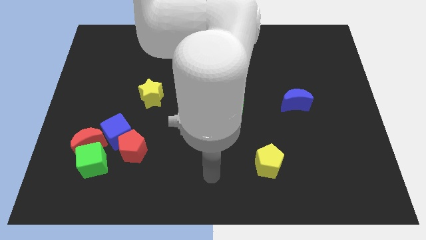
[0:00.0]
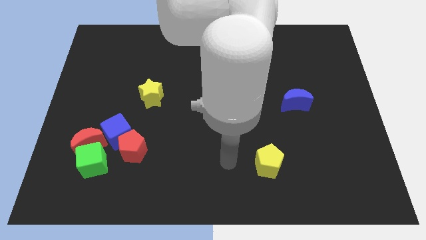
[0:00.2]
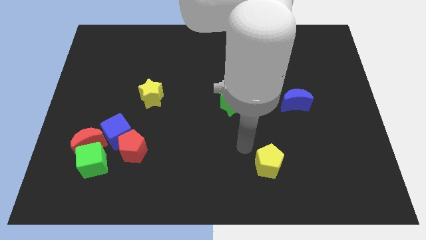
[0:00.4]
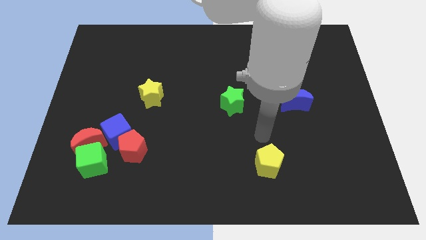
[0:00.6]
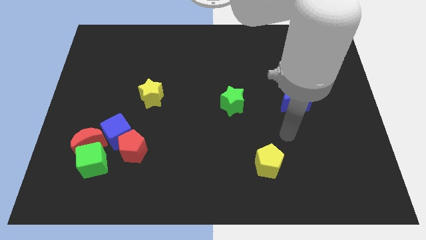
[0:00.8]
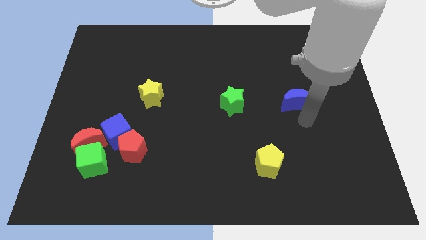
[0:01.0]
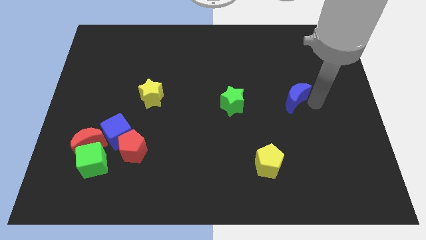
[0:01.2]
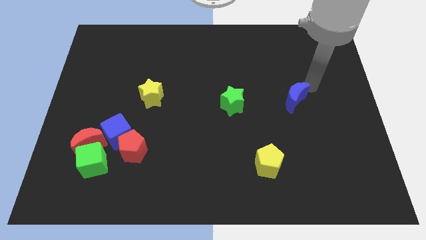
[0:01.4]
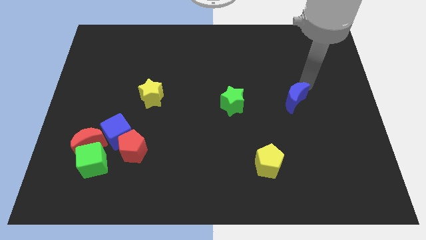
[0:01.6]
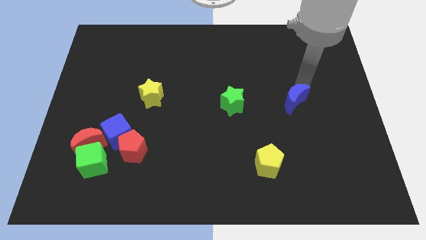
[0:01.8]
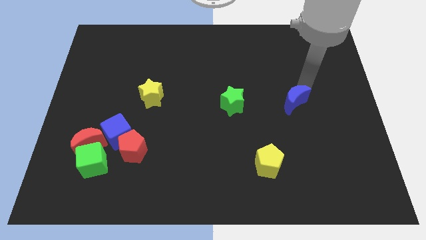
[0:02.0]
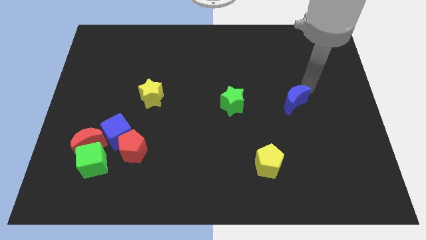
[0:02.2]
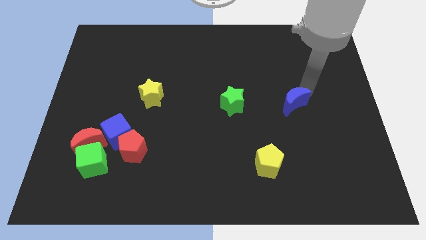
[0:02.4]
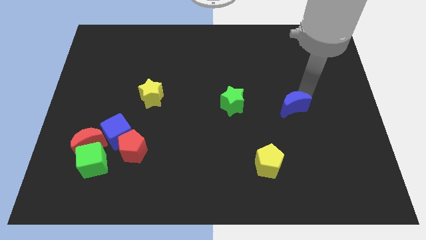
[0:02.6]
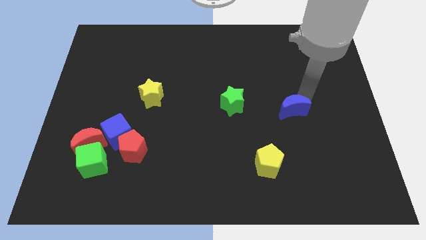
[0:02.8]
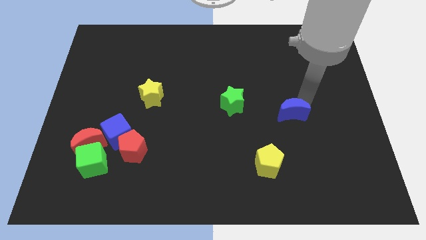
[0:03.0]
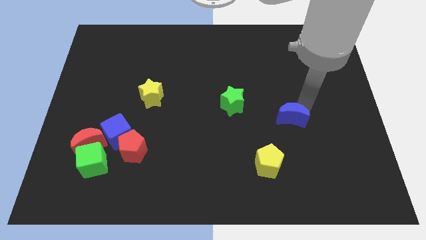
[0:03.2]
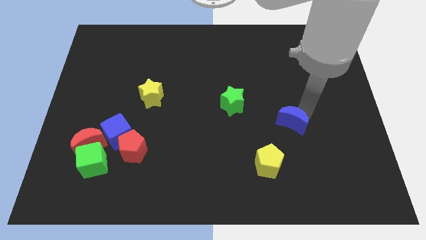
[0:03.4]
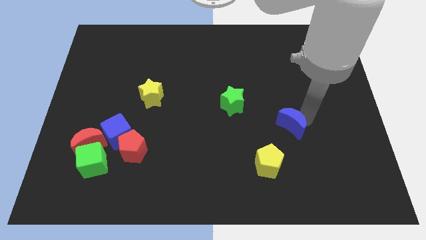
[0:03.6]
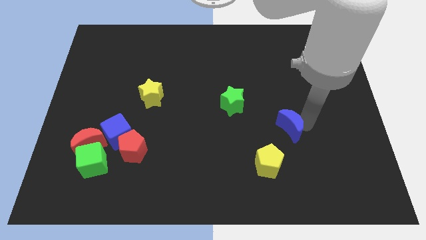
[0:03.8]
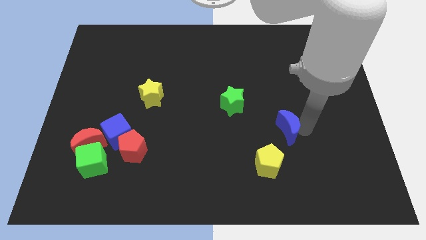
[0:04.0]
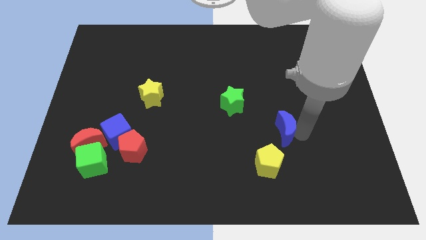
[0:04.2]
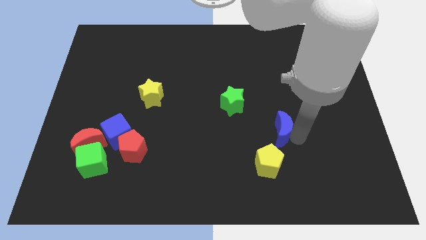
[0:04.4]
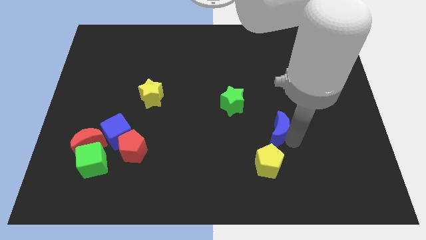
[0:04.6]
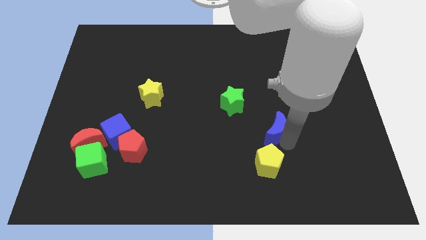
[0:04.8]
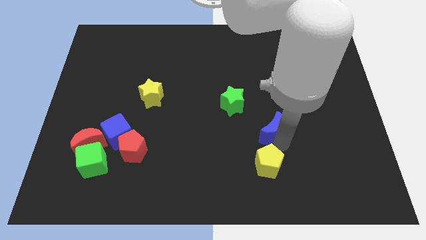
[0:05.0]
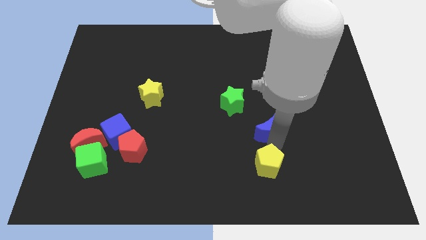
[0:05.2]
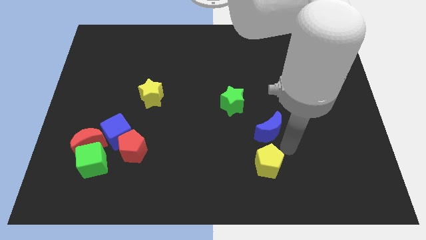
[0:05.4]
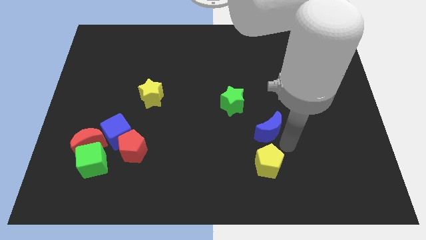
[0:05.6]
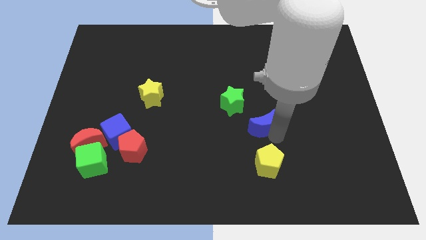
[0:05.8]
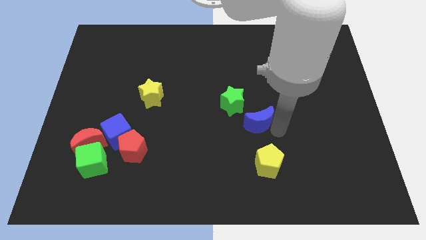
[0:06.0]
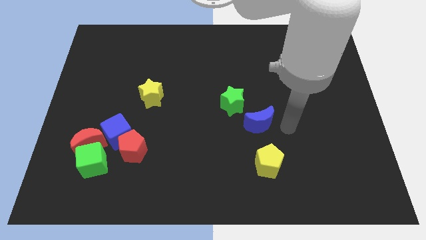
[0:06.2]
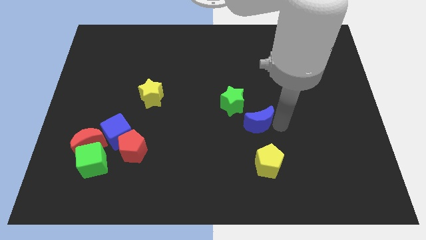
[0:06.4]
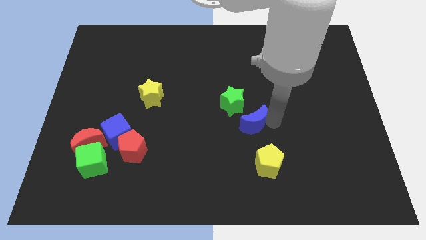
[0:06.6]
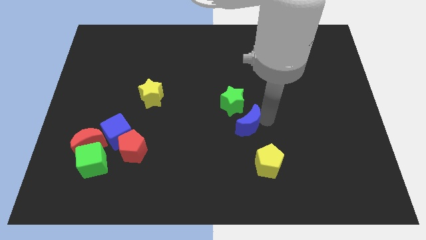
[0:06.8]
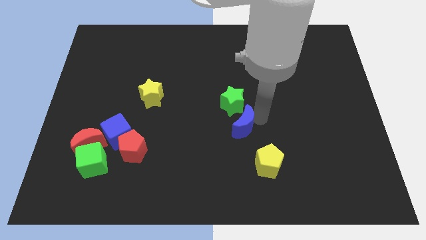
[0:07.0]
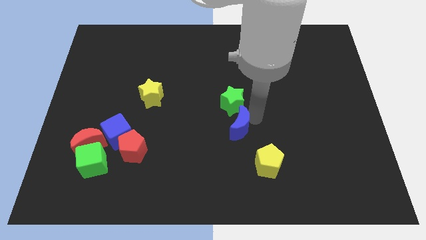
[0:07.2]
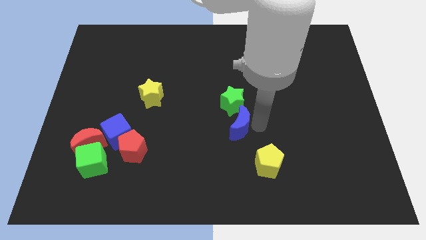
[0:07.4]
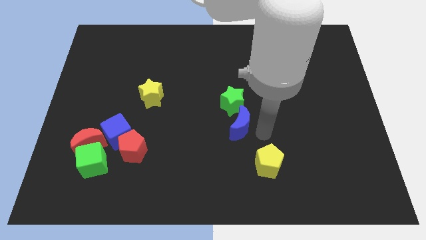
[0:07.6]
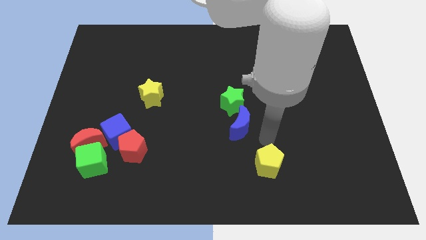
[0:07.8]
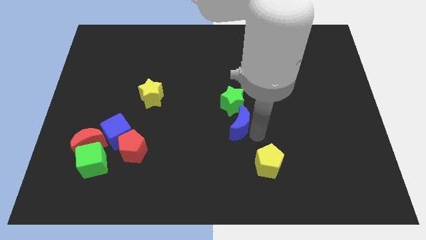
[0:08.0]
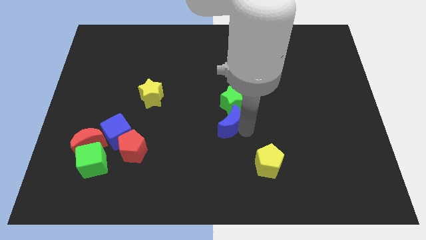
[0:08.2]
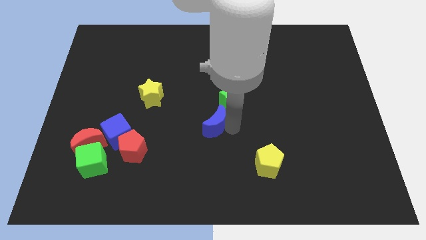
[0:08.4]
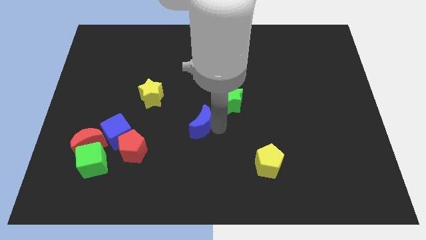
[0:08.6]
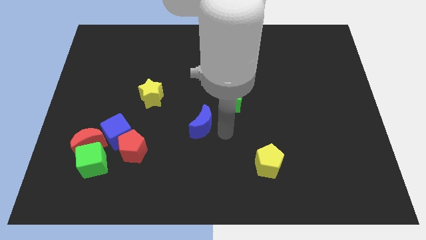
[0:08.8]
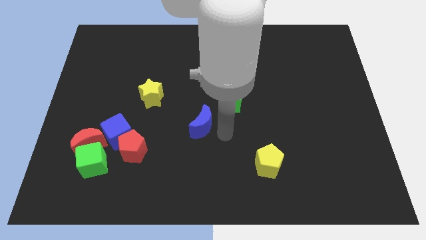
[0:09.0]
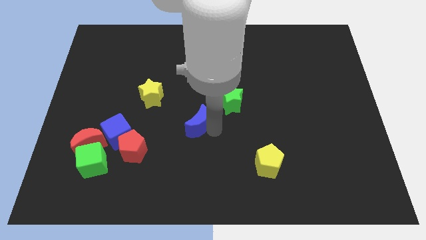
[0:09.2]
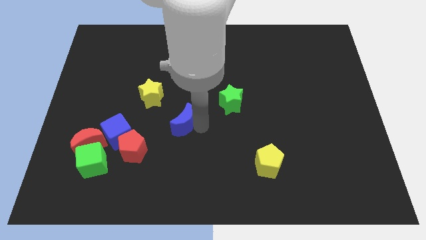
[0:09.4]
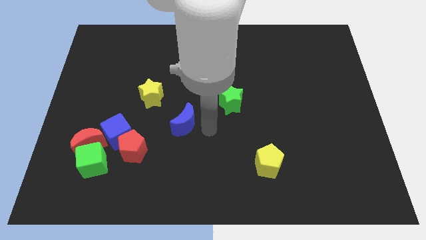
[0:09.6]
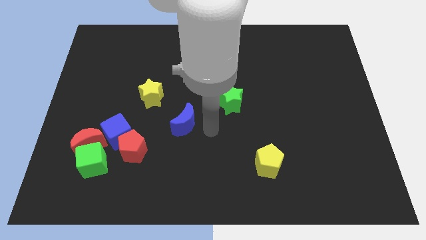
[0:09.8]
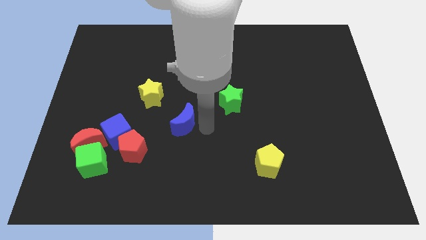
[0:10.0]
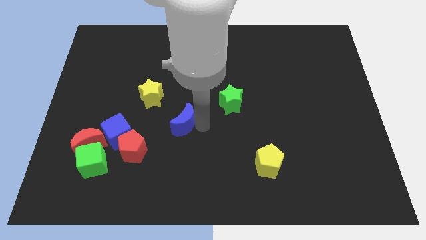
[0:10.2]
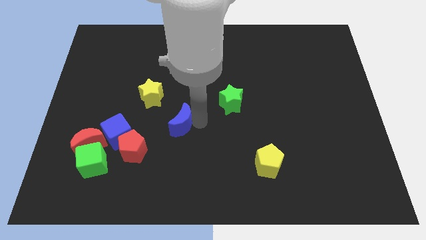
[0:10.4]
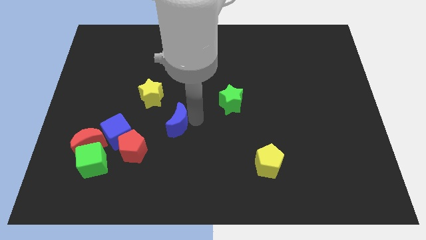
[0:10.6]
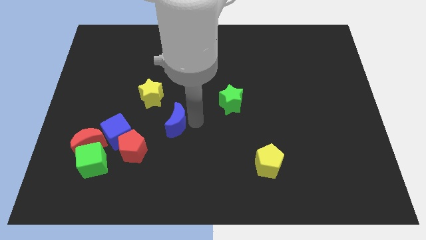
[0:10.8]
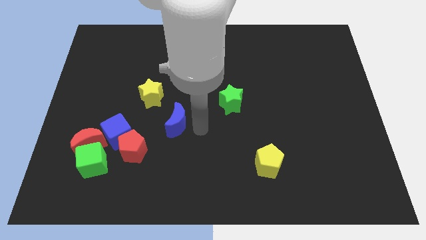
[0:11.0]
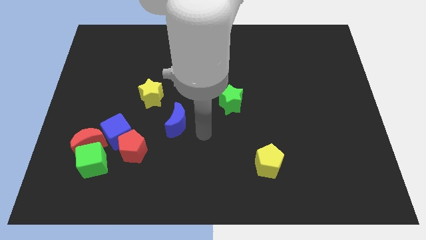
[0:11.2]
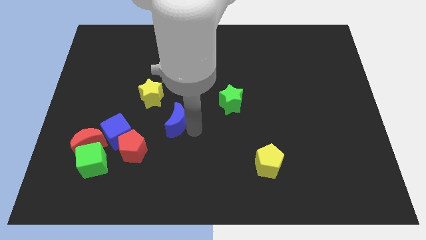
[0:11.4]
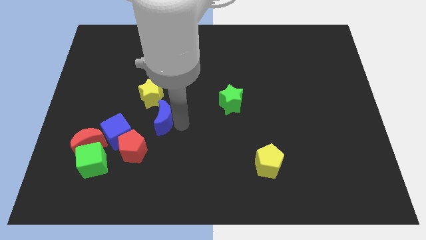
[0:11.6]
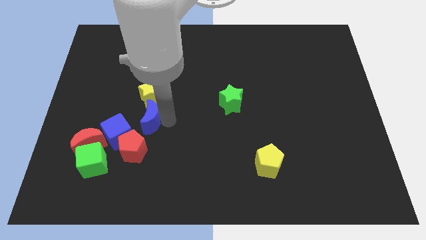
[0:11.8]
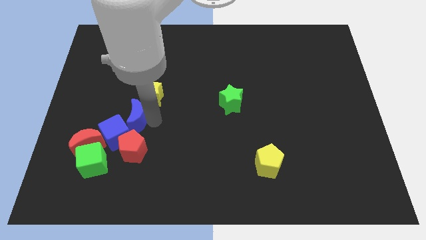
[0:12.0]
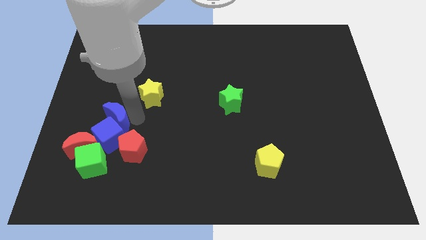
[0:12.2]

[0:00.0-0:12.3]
put the blue moon diagonally up and to the left of the blue cube

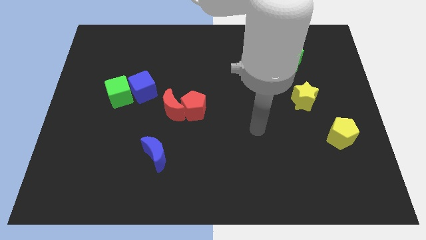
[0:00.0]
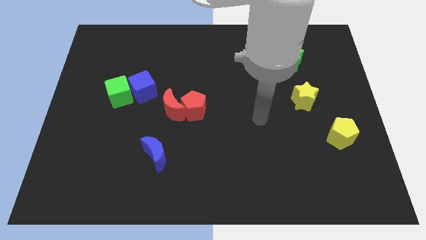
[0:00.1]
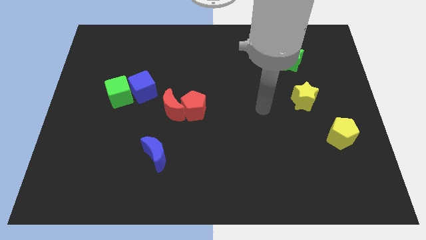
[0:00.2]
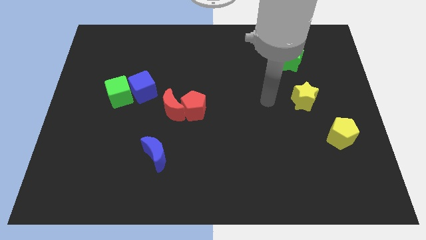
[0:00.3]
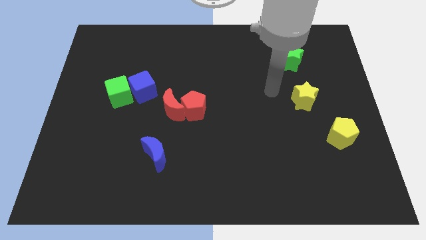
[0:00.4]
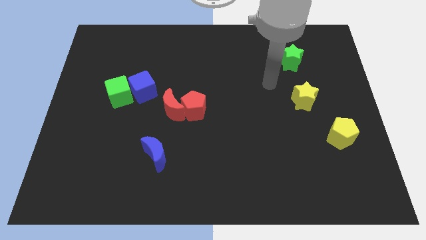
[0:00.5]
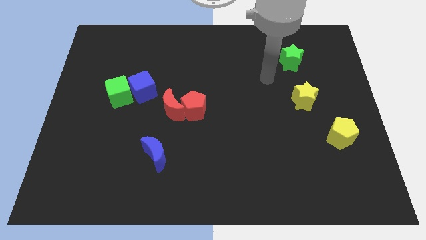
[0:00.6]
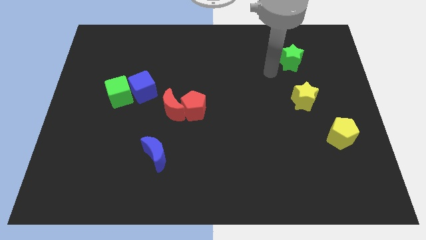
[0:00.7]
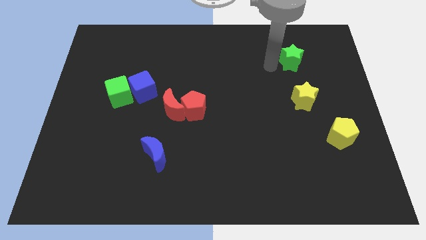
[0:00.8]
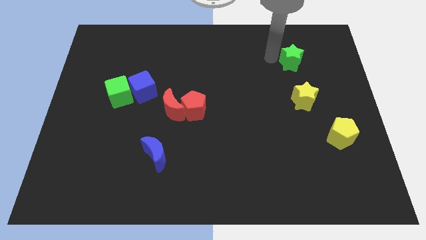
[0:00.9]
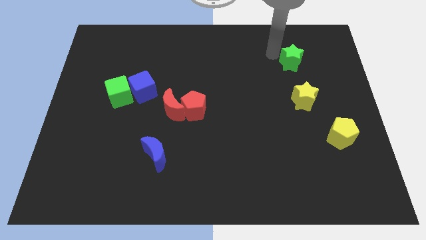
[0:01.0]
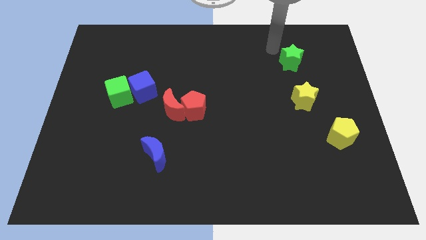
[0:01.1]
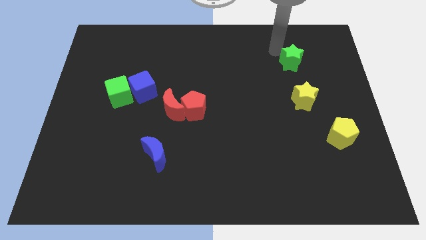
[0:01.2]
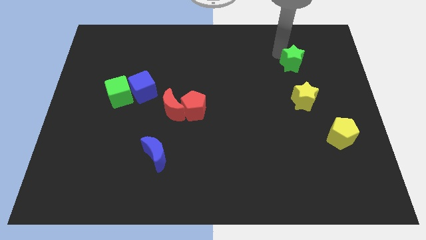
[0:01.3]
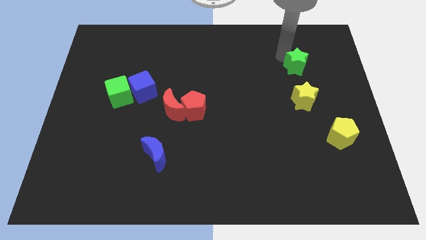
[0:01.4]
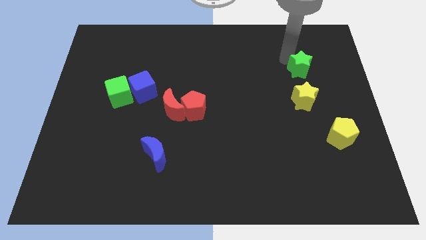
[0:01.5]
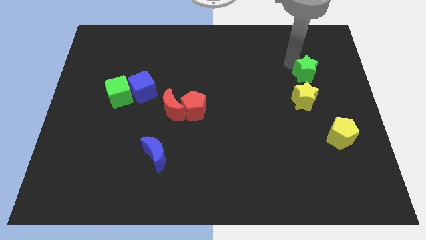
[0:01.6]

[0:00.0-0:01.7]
put the green star diagonally up and to the right of the yellow star
